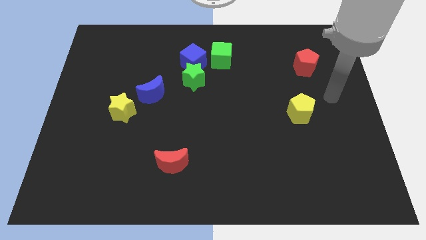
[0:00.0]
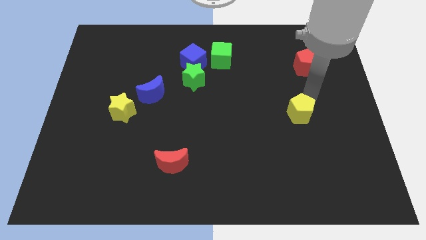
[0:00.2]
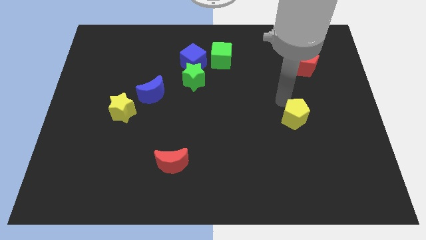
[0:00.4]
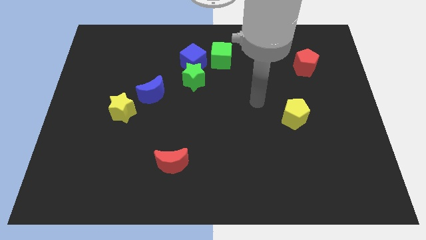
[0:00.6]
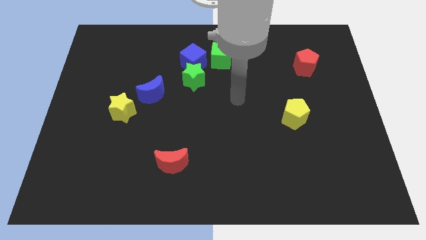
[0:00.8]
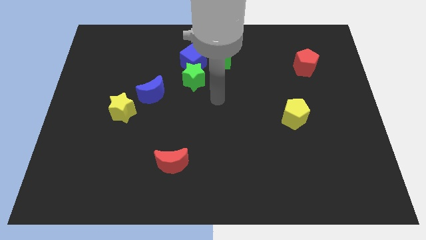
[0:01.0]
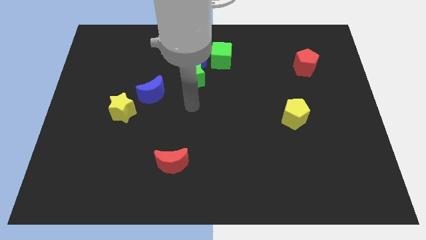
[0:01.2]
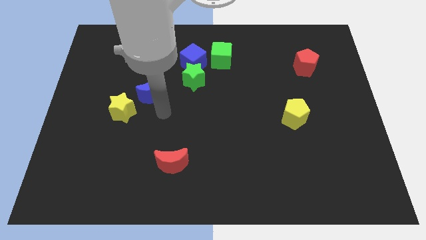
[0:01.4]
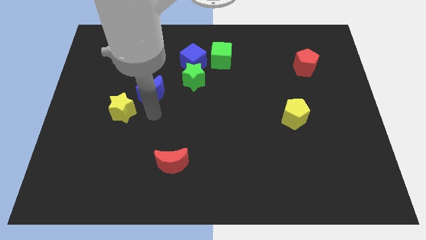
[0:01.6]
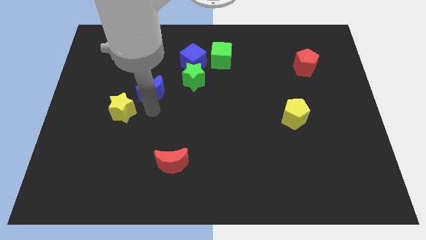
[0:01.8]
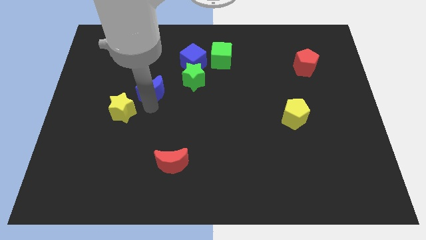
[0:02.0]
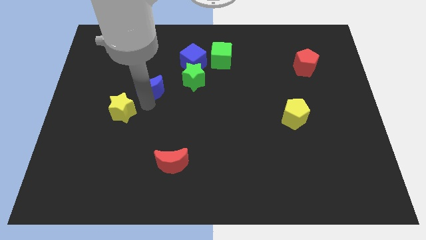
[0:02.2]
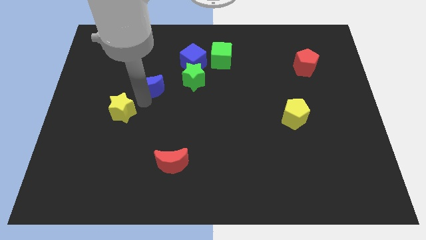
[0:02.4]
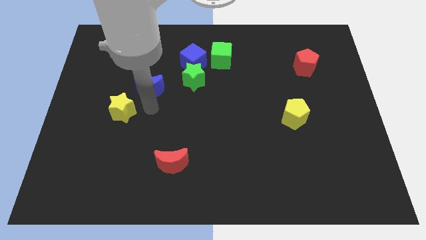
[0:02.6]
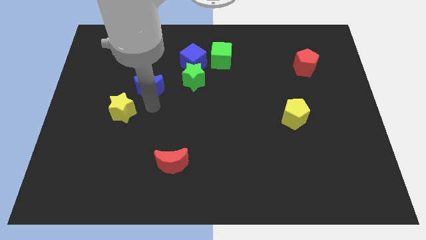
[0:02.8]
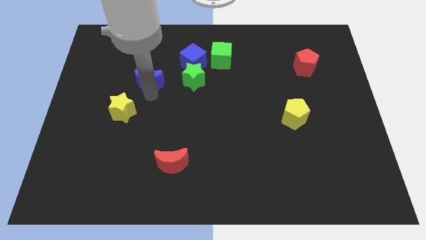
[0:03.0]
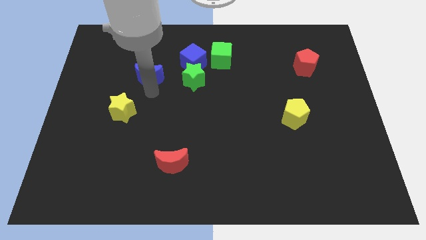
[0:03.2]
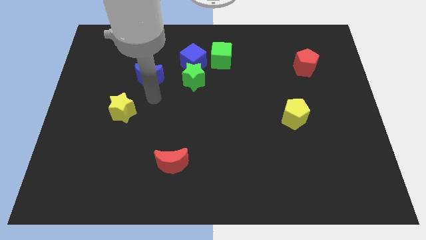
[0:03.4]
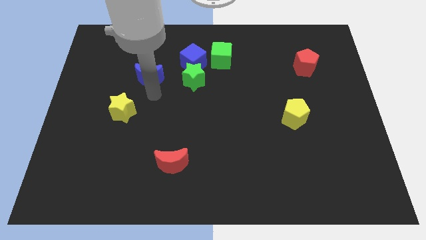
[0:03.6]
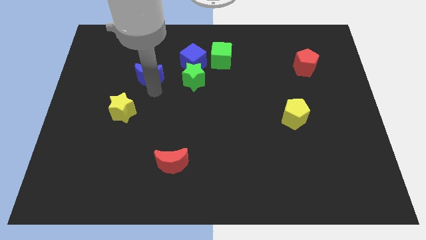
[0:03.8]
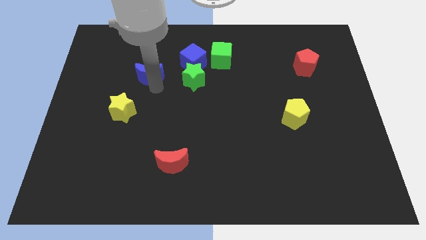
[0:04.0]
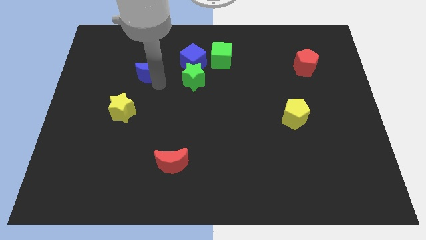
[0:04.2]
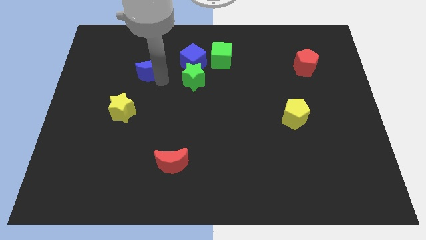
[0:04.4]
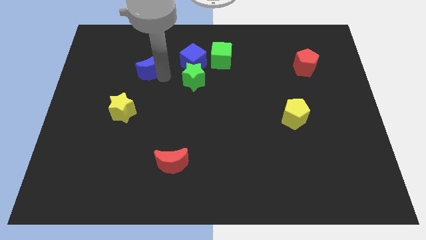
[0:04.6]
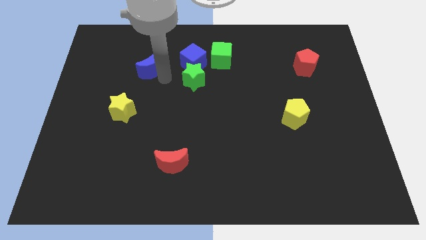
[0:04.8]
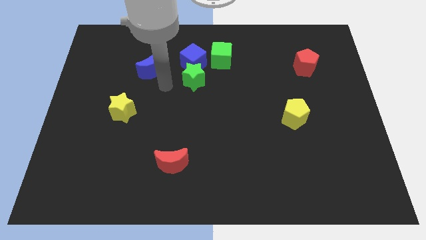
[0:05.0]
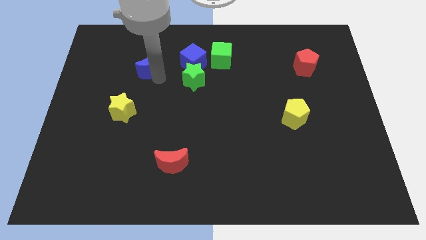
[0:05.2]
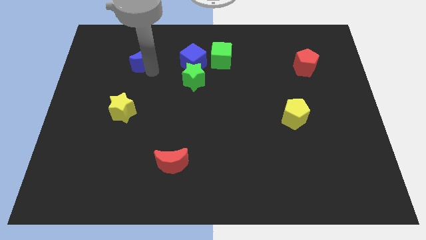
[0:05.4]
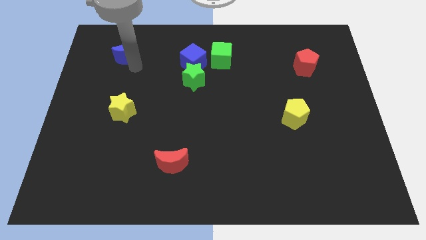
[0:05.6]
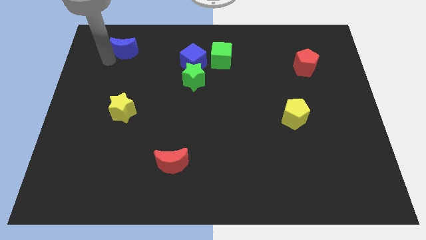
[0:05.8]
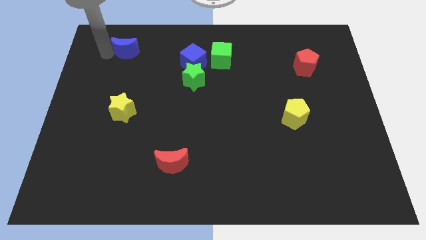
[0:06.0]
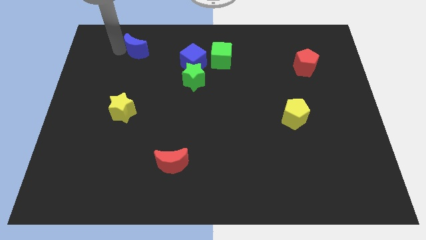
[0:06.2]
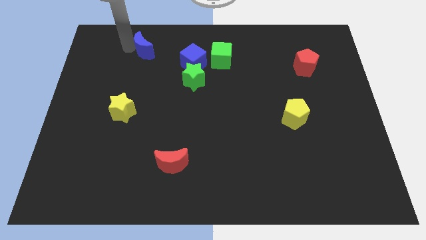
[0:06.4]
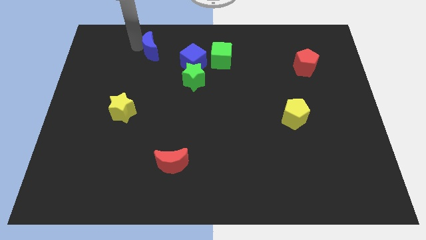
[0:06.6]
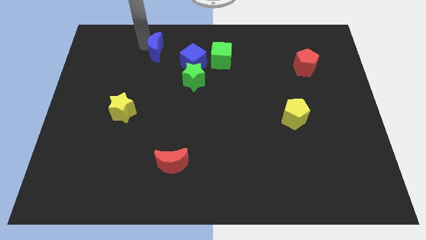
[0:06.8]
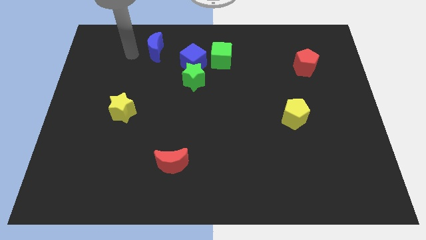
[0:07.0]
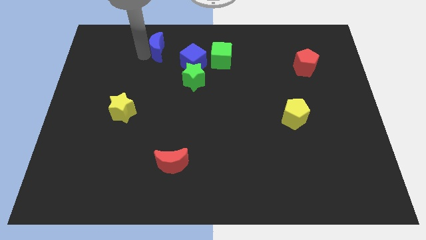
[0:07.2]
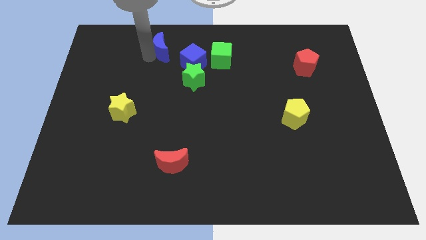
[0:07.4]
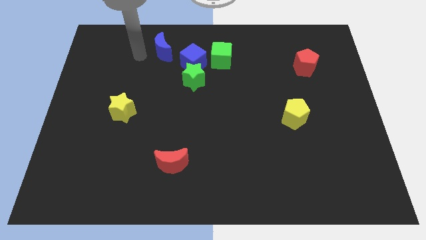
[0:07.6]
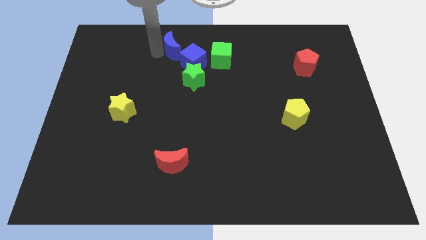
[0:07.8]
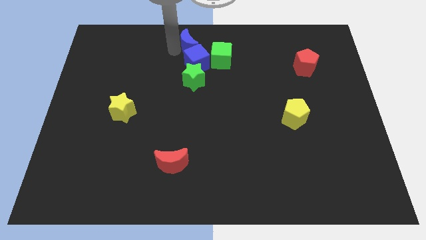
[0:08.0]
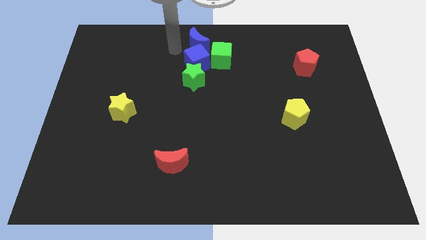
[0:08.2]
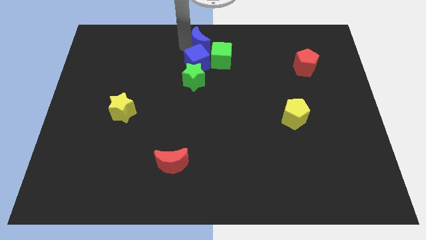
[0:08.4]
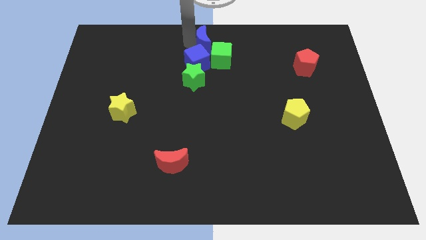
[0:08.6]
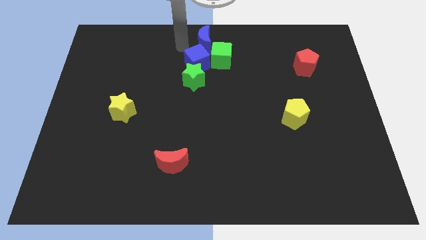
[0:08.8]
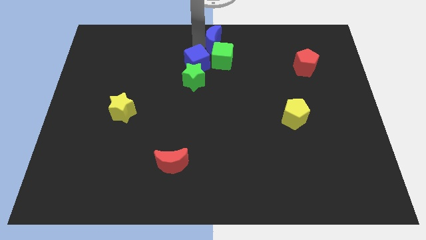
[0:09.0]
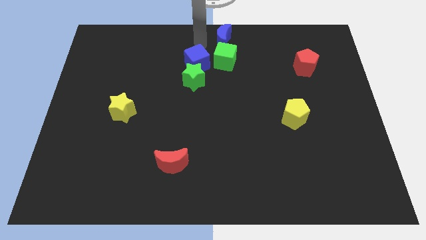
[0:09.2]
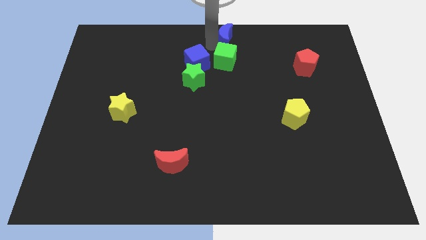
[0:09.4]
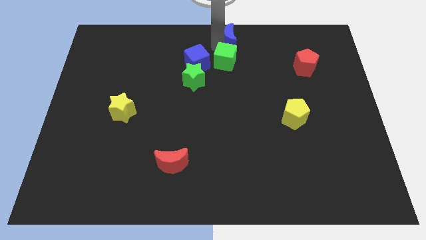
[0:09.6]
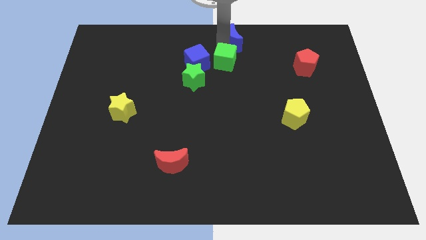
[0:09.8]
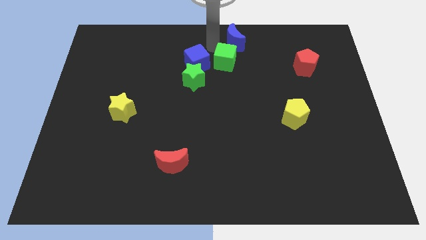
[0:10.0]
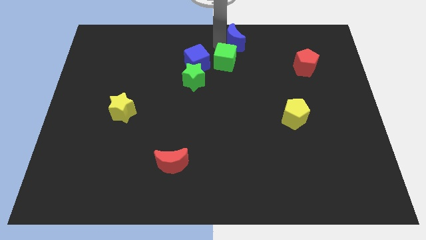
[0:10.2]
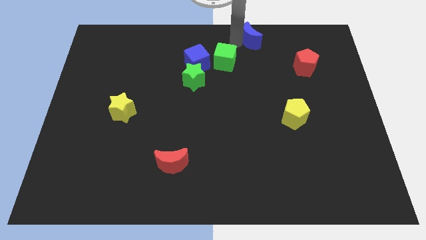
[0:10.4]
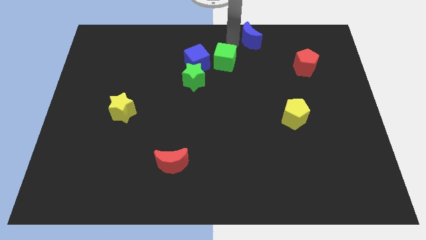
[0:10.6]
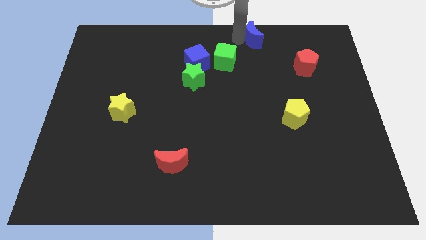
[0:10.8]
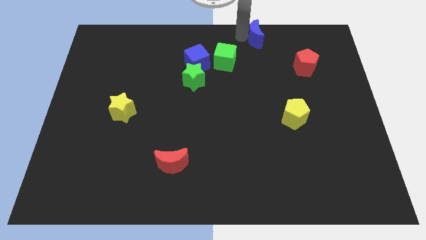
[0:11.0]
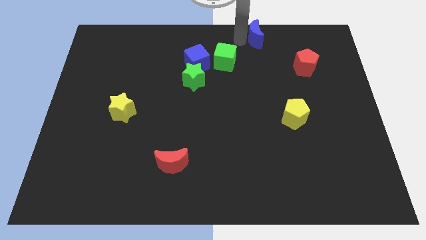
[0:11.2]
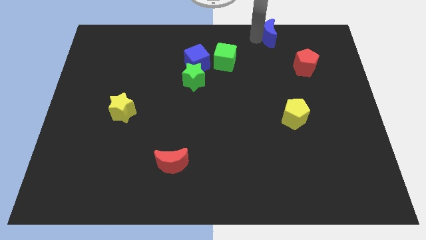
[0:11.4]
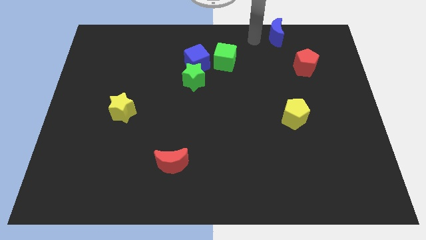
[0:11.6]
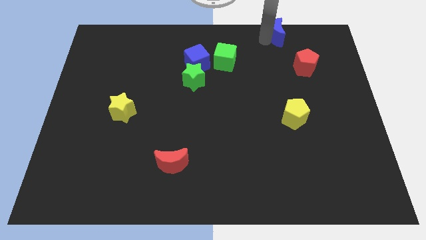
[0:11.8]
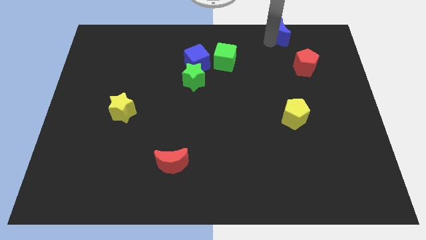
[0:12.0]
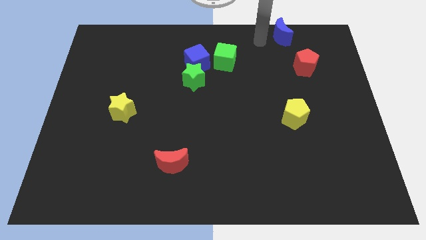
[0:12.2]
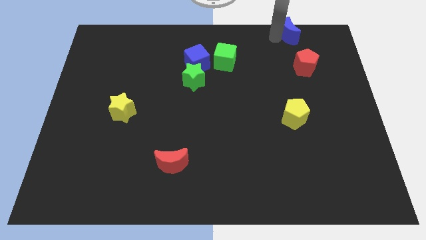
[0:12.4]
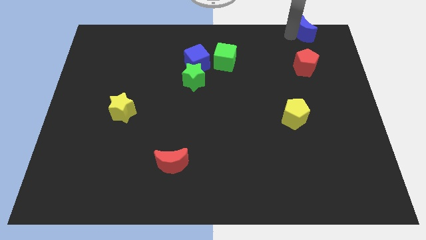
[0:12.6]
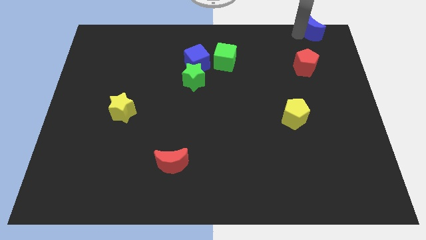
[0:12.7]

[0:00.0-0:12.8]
move the blue moon to the top right corner
